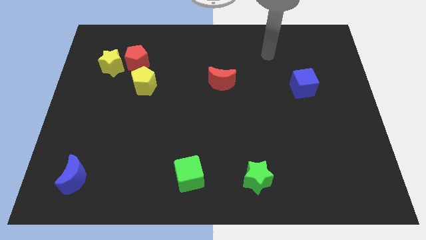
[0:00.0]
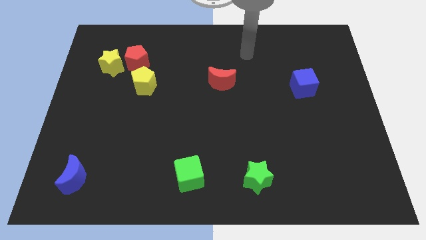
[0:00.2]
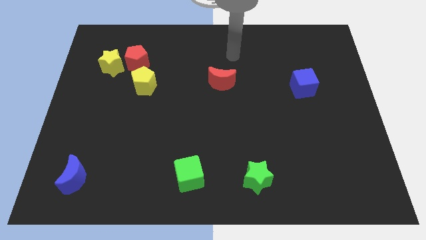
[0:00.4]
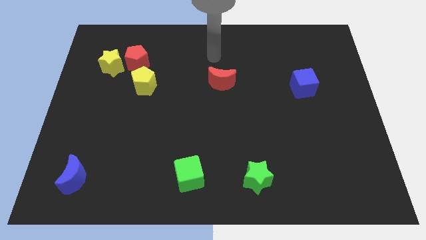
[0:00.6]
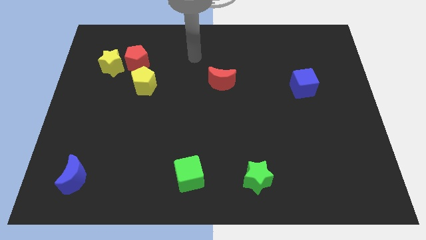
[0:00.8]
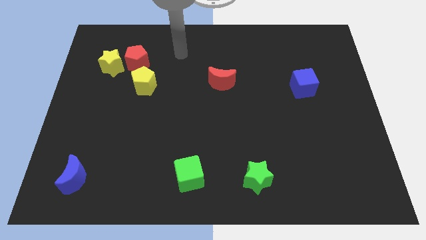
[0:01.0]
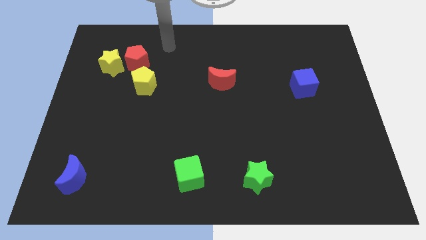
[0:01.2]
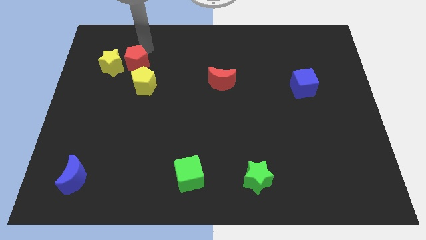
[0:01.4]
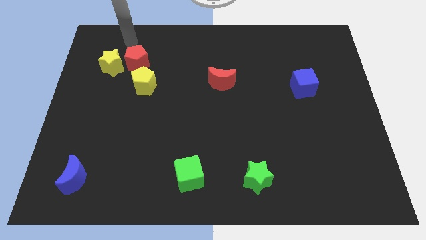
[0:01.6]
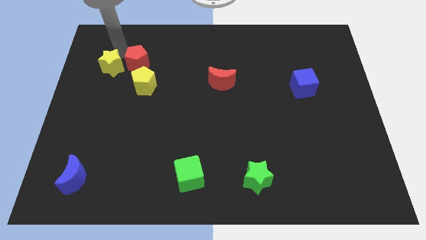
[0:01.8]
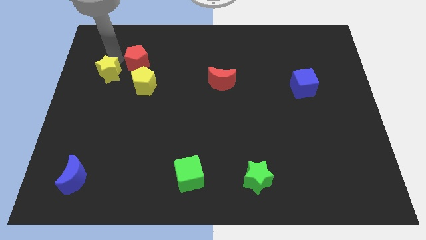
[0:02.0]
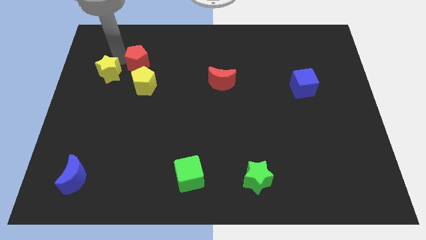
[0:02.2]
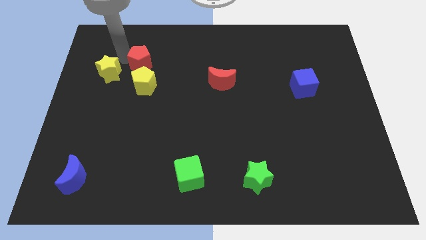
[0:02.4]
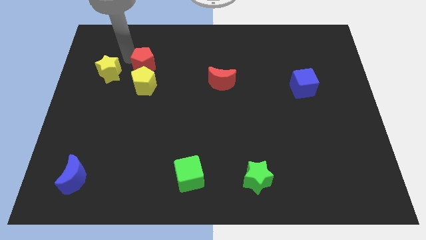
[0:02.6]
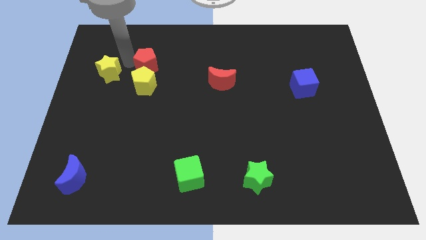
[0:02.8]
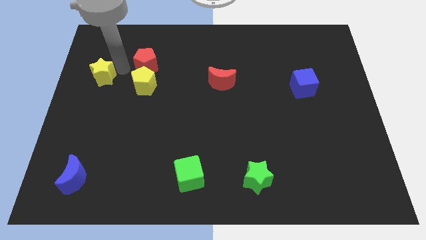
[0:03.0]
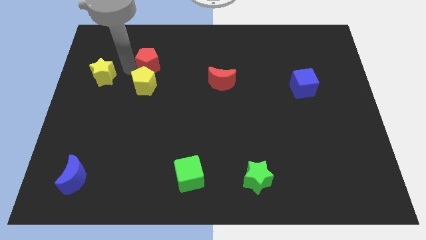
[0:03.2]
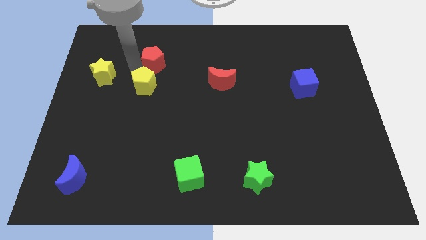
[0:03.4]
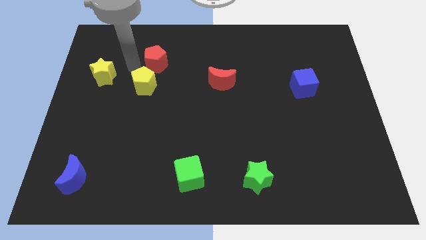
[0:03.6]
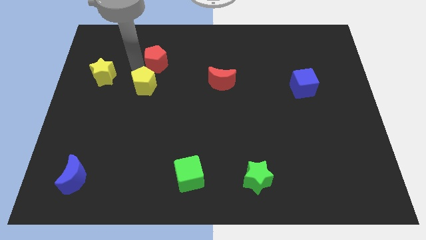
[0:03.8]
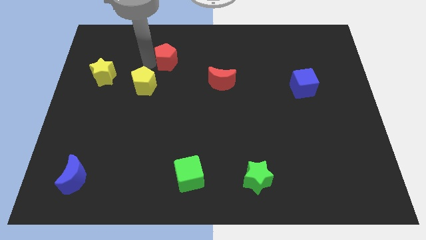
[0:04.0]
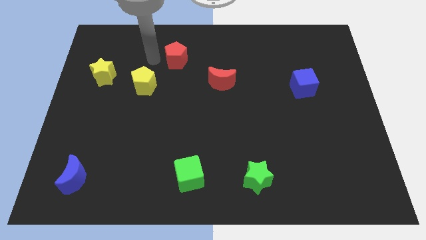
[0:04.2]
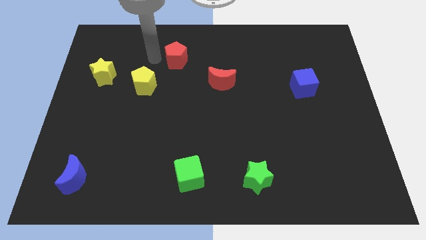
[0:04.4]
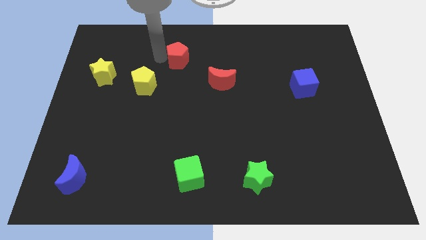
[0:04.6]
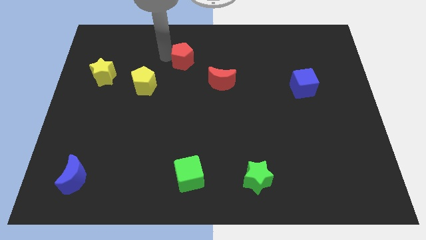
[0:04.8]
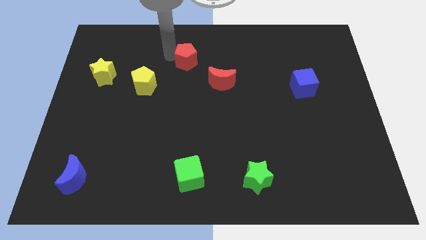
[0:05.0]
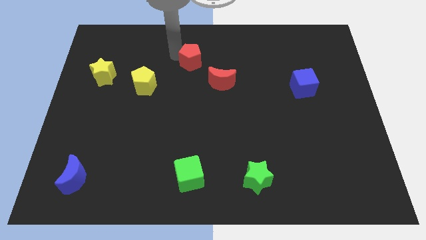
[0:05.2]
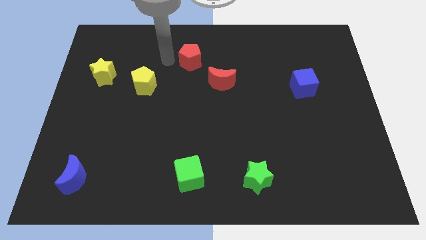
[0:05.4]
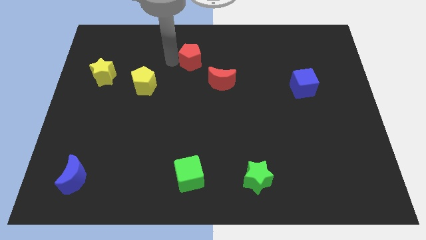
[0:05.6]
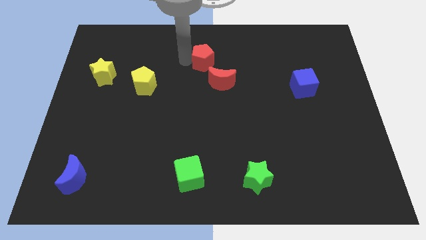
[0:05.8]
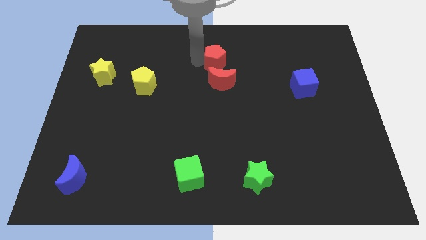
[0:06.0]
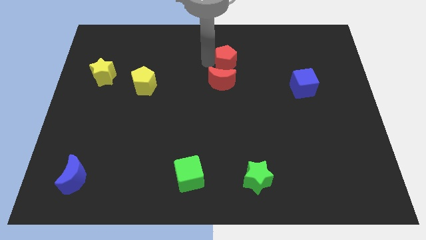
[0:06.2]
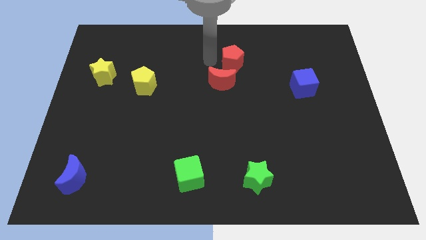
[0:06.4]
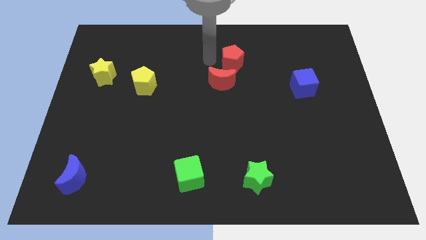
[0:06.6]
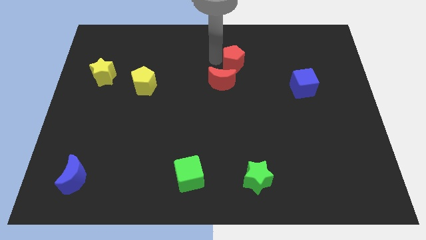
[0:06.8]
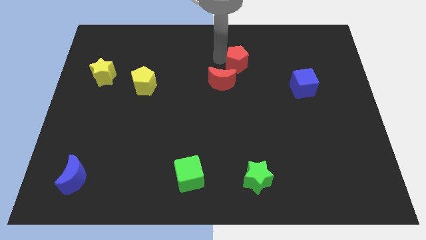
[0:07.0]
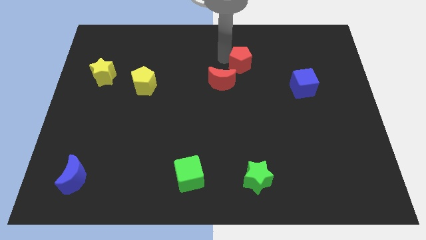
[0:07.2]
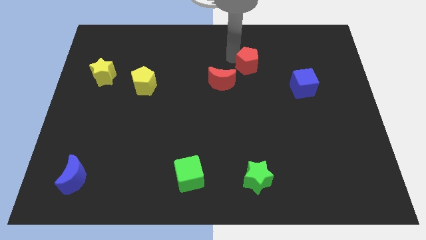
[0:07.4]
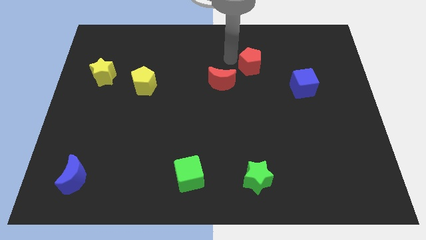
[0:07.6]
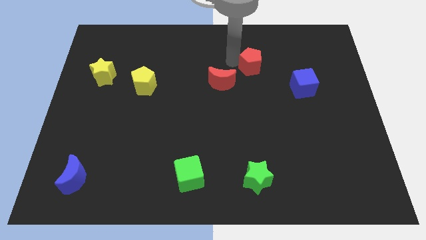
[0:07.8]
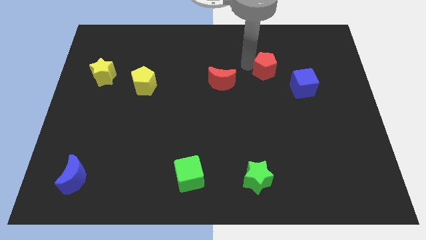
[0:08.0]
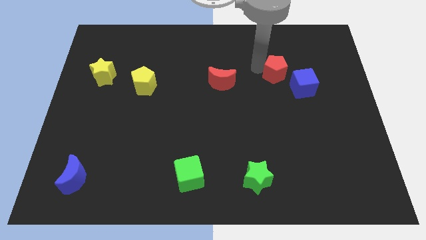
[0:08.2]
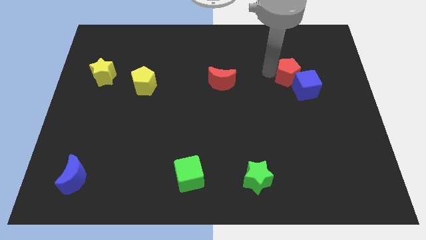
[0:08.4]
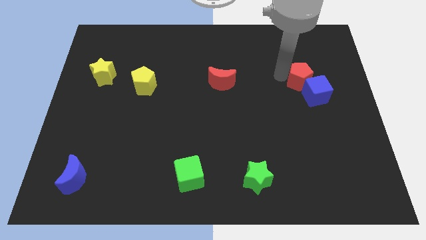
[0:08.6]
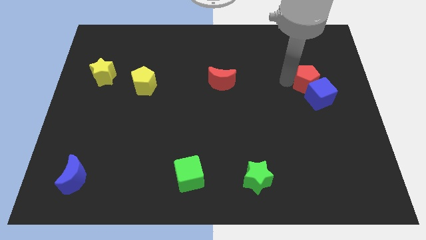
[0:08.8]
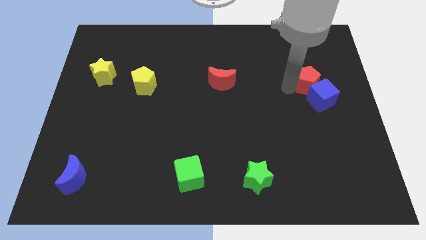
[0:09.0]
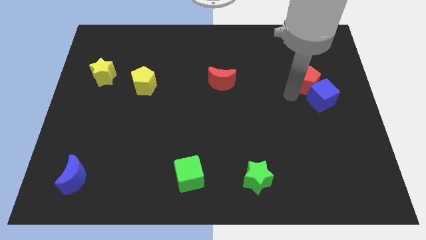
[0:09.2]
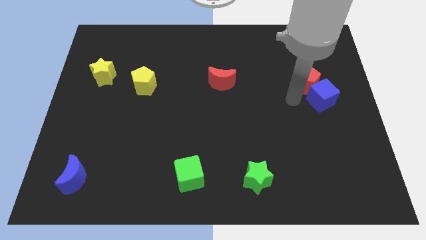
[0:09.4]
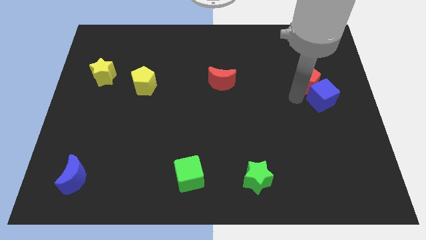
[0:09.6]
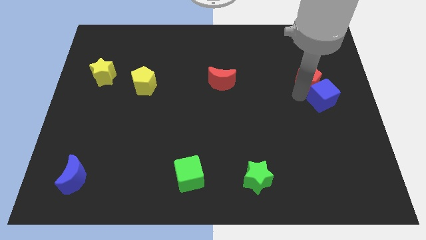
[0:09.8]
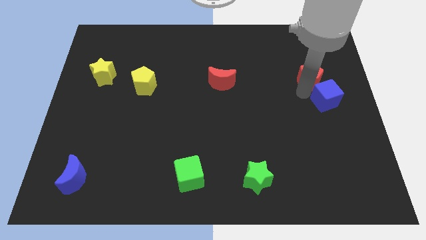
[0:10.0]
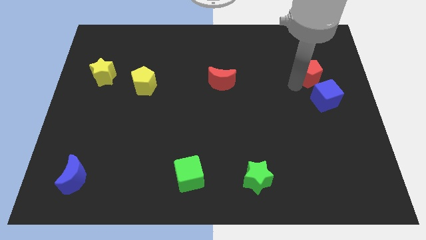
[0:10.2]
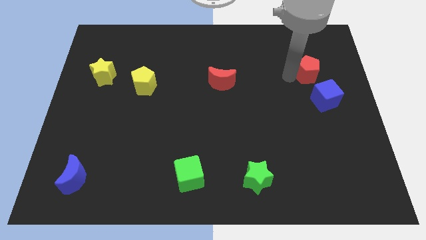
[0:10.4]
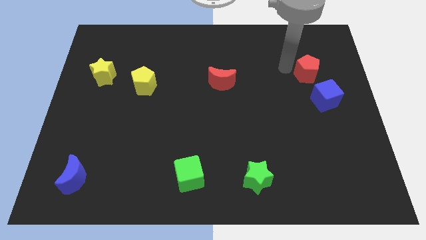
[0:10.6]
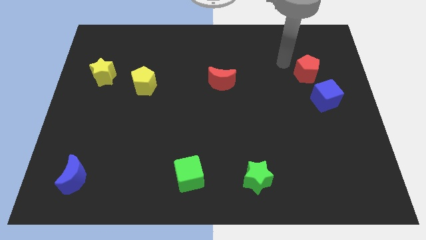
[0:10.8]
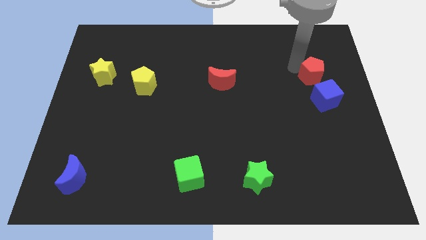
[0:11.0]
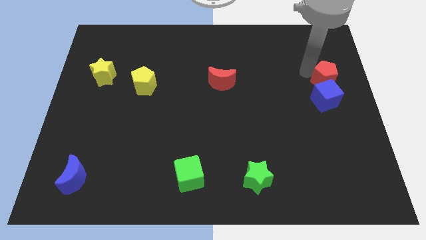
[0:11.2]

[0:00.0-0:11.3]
push the red pentagon to the right side

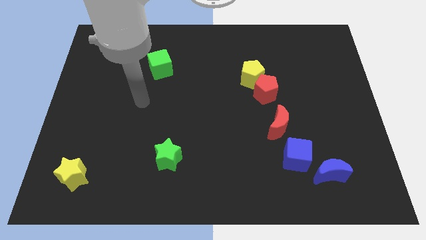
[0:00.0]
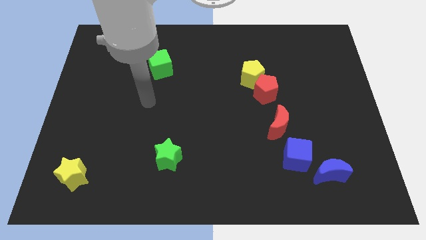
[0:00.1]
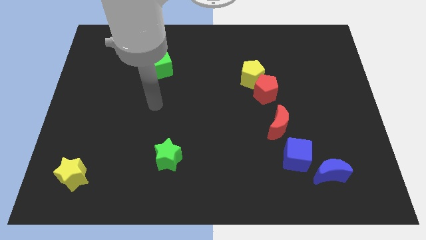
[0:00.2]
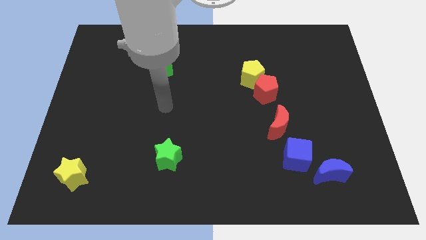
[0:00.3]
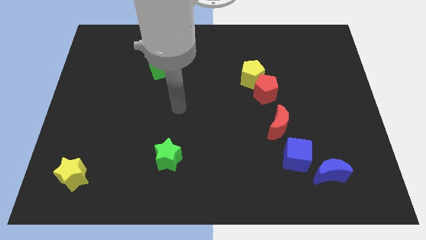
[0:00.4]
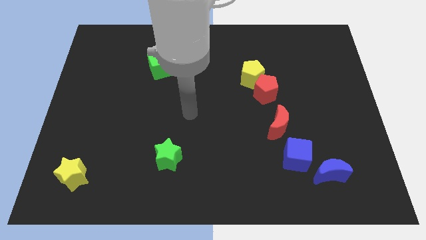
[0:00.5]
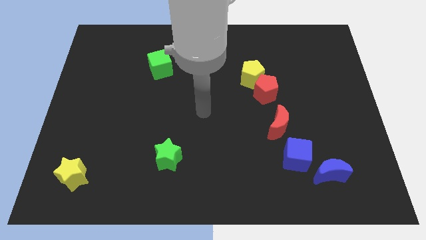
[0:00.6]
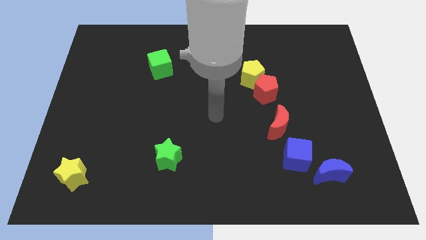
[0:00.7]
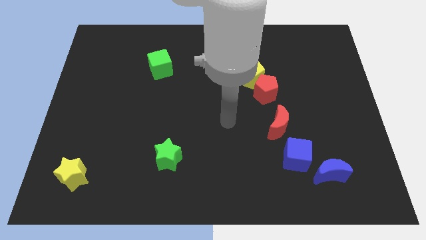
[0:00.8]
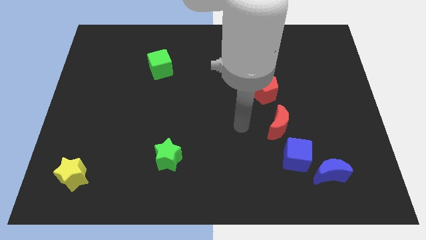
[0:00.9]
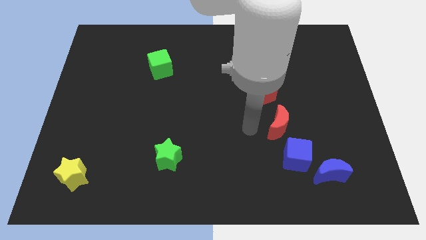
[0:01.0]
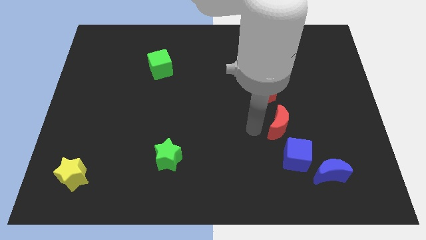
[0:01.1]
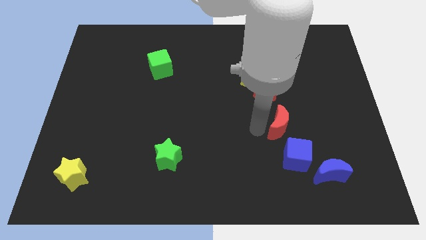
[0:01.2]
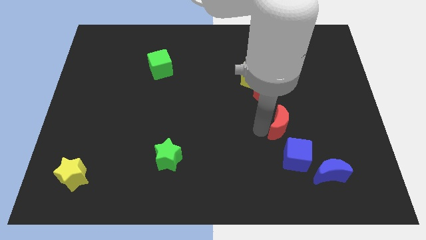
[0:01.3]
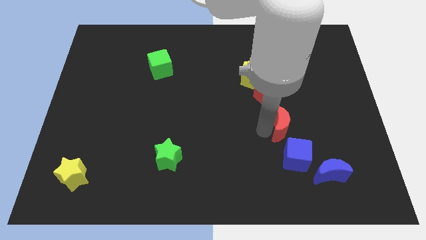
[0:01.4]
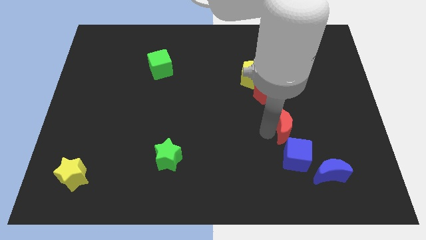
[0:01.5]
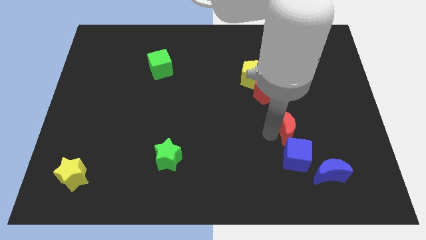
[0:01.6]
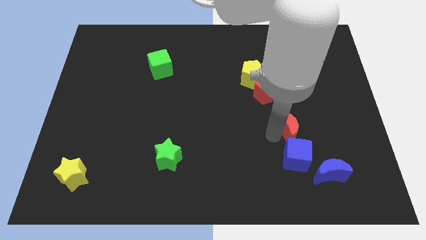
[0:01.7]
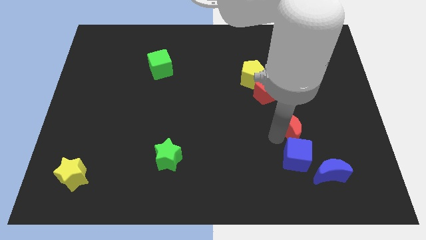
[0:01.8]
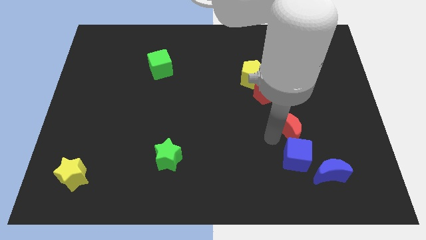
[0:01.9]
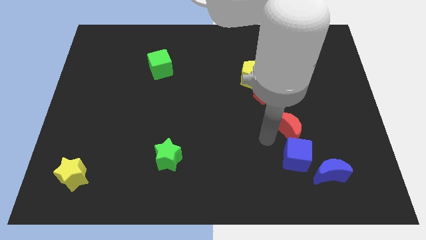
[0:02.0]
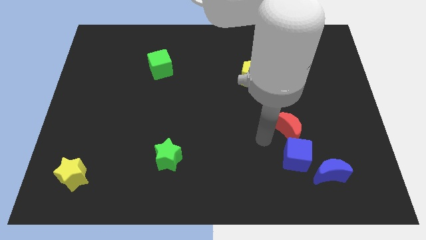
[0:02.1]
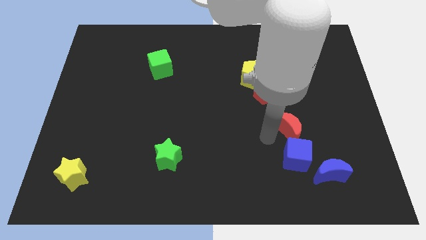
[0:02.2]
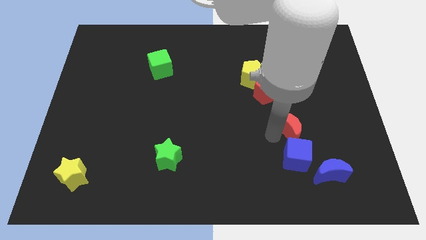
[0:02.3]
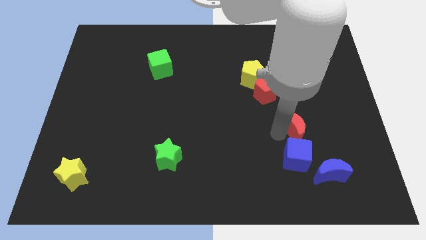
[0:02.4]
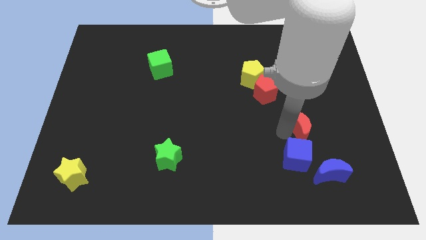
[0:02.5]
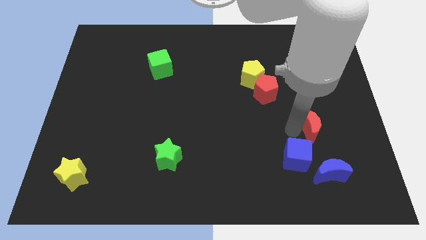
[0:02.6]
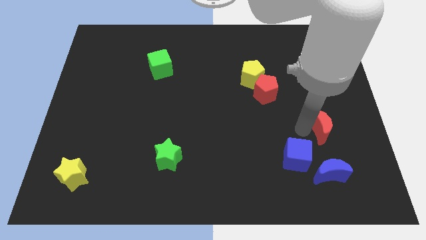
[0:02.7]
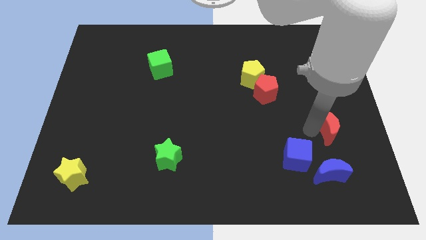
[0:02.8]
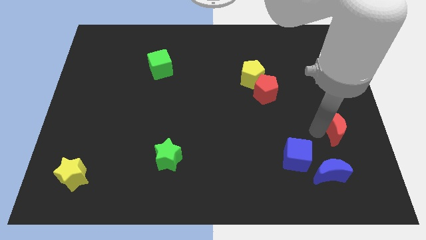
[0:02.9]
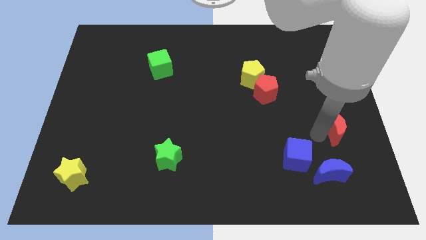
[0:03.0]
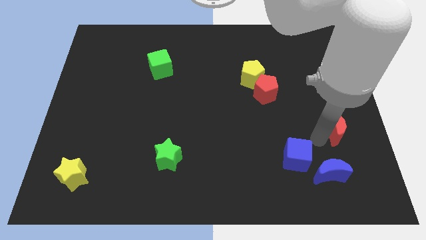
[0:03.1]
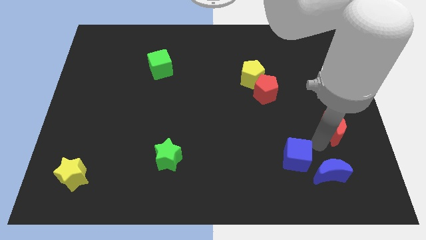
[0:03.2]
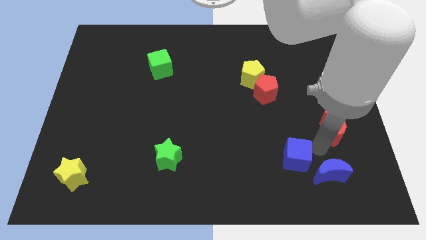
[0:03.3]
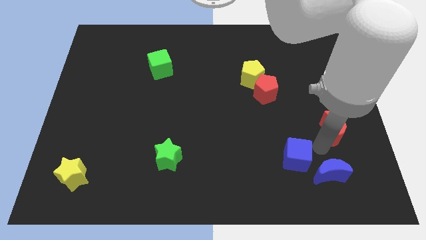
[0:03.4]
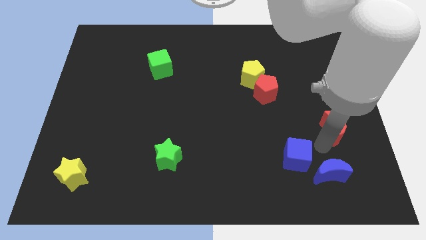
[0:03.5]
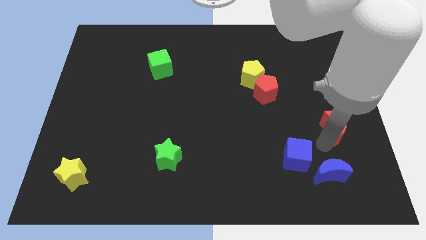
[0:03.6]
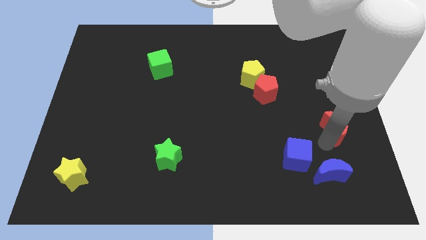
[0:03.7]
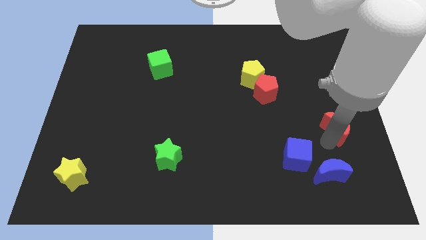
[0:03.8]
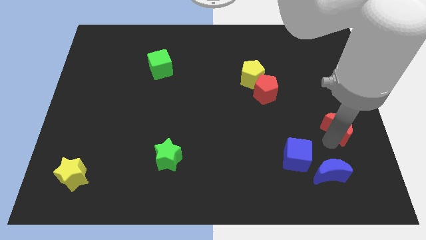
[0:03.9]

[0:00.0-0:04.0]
slide the red moon to the right side
